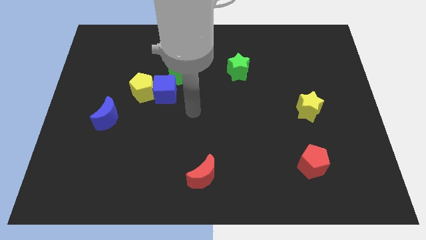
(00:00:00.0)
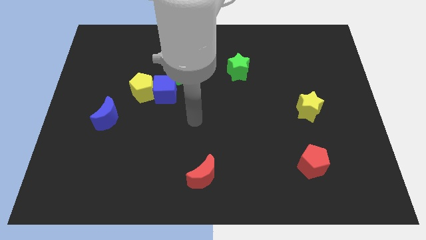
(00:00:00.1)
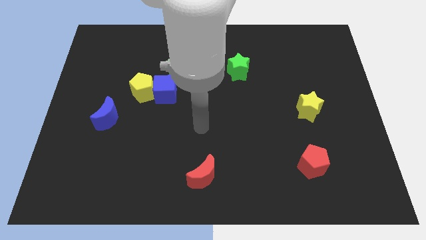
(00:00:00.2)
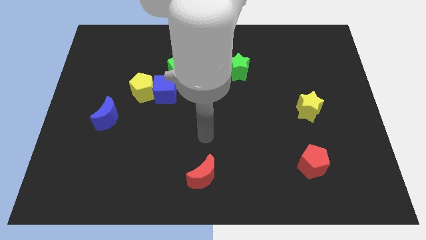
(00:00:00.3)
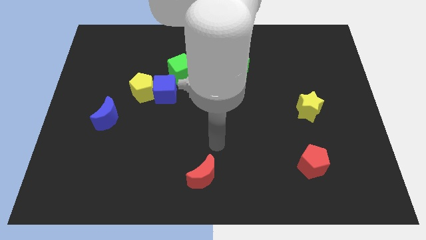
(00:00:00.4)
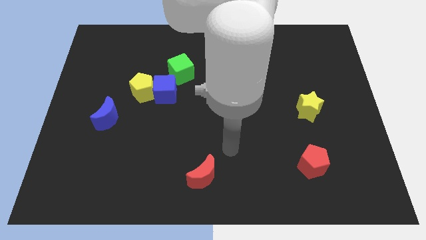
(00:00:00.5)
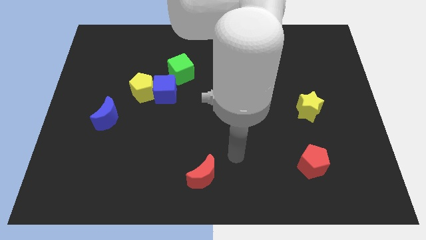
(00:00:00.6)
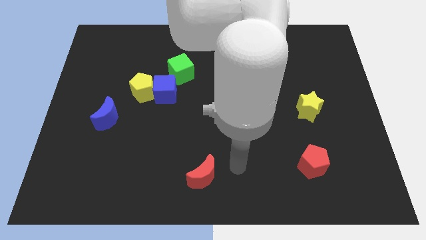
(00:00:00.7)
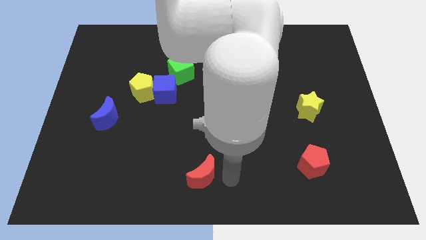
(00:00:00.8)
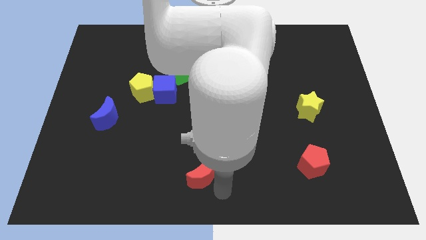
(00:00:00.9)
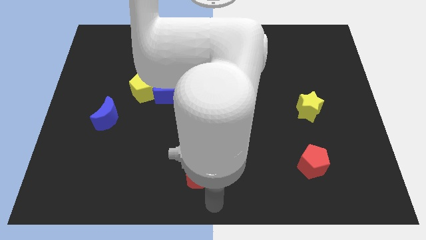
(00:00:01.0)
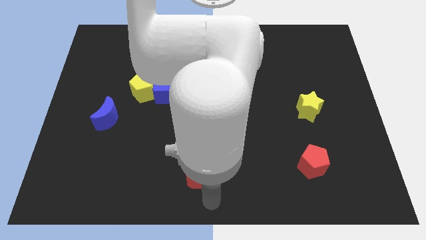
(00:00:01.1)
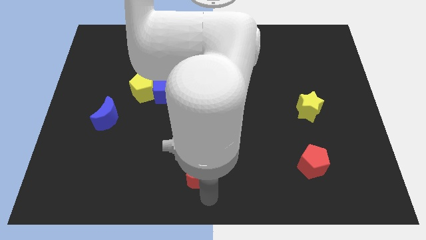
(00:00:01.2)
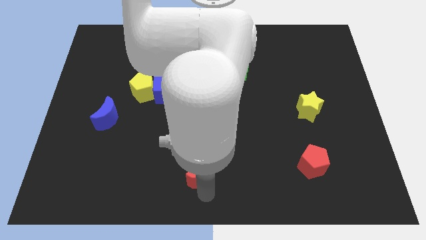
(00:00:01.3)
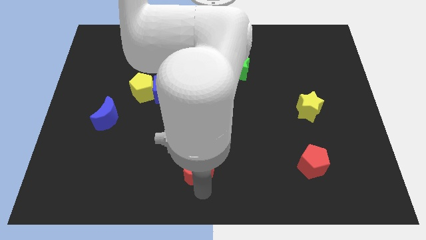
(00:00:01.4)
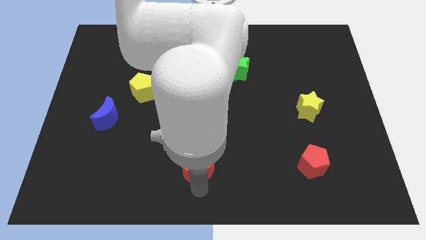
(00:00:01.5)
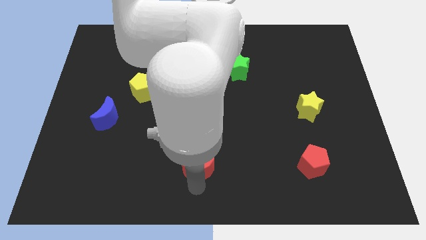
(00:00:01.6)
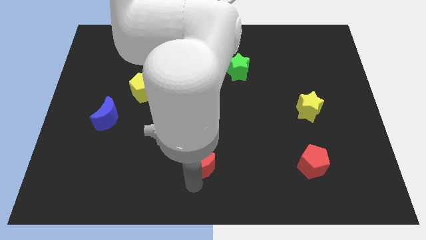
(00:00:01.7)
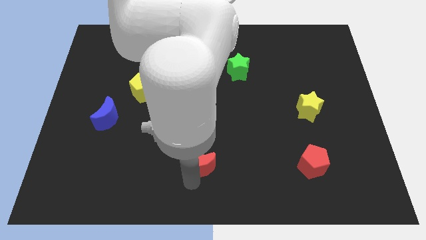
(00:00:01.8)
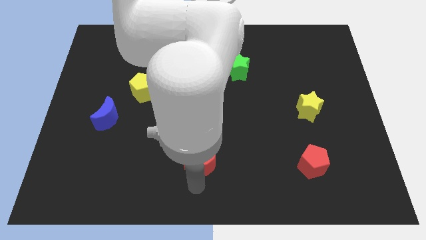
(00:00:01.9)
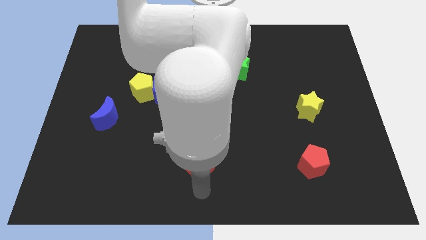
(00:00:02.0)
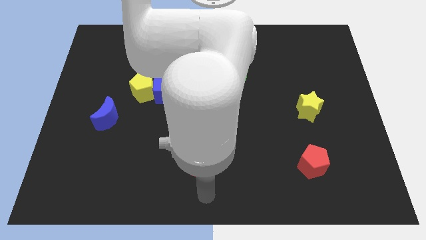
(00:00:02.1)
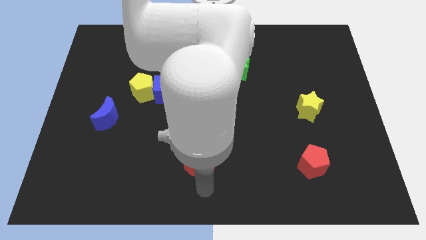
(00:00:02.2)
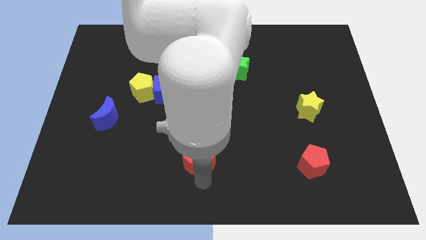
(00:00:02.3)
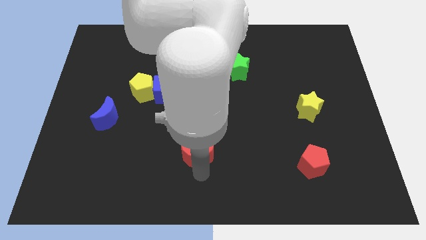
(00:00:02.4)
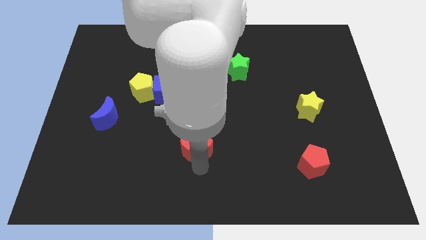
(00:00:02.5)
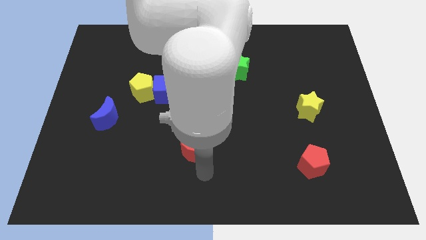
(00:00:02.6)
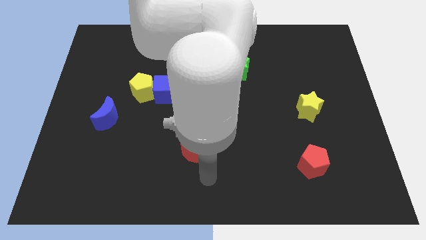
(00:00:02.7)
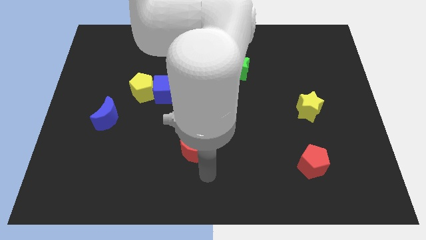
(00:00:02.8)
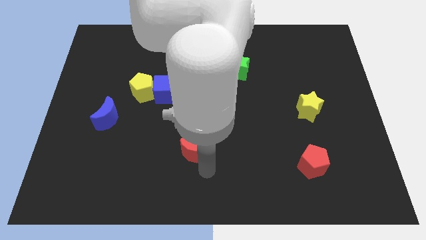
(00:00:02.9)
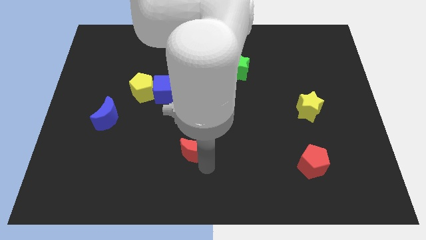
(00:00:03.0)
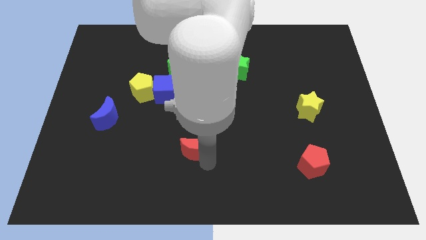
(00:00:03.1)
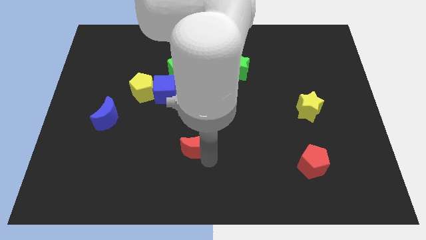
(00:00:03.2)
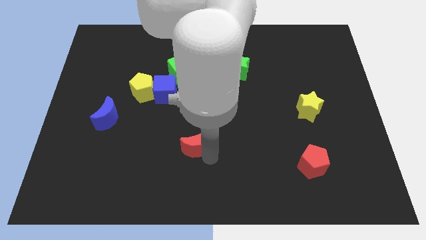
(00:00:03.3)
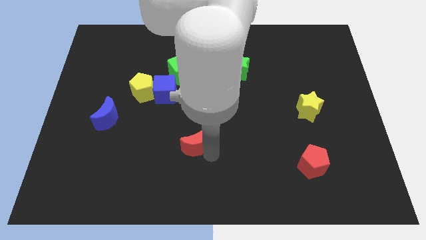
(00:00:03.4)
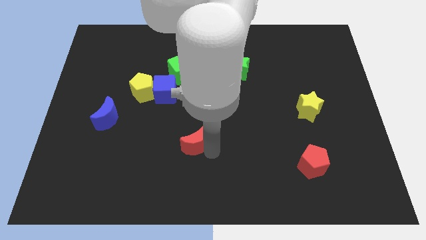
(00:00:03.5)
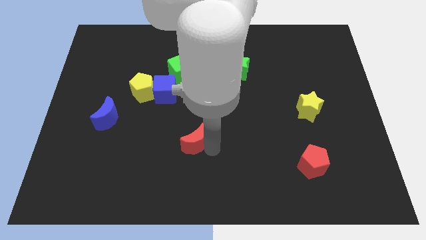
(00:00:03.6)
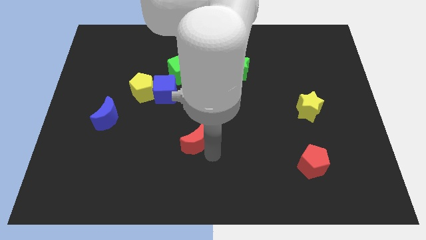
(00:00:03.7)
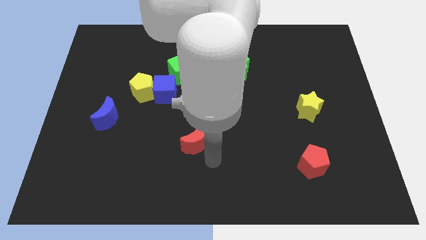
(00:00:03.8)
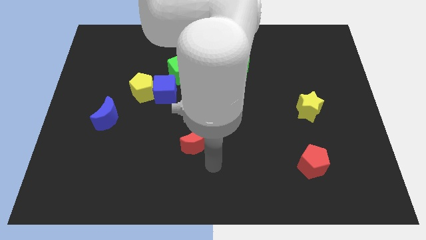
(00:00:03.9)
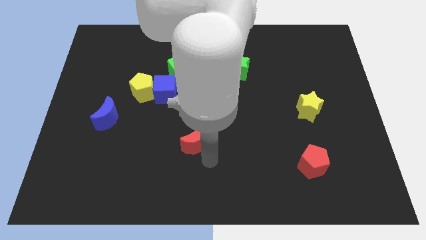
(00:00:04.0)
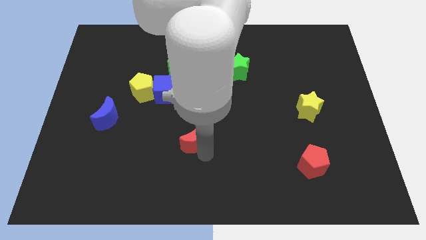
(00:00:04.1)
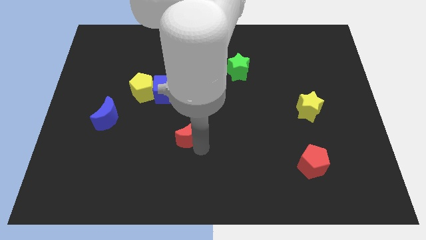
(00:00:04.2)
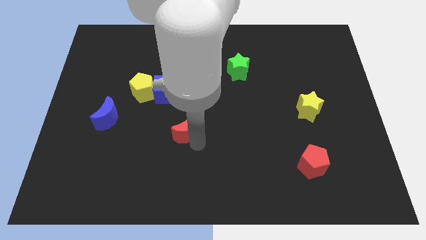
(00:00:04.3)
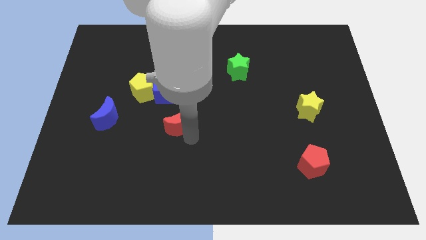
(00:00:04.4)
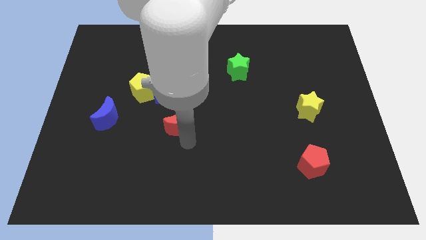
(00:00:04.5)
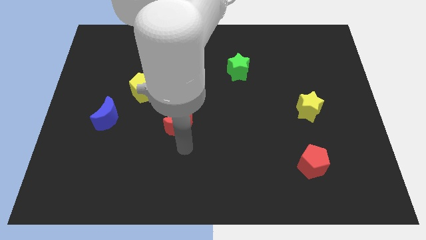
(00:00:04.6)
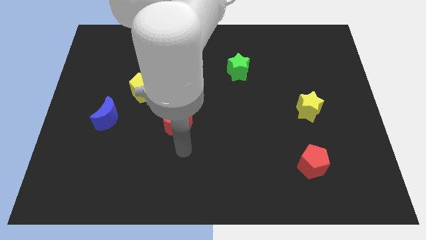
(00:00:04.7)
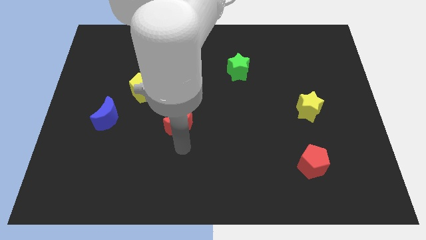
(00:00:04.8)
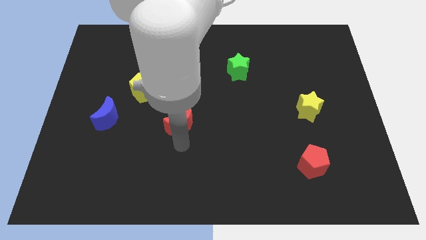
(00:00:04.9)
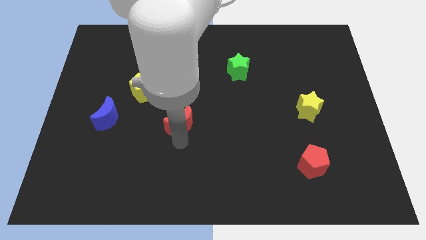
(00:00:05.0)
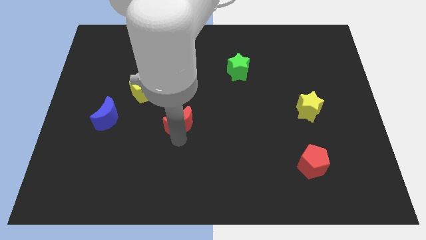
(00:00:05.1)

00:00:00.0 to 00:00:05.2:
slide the red moon below the green cube

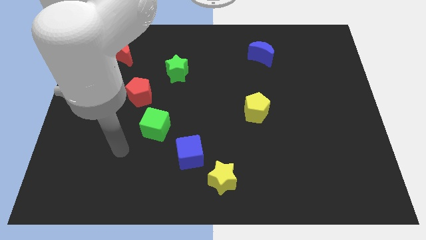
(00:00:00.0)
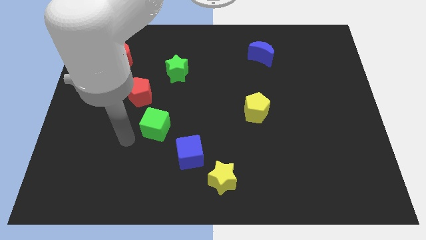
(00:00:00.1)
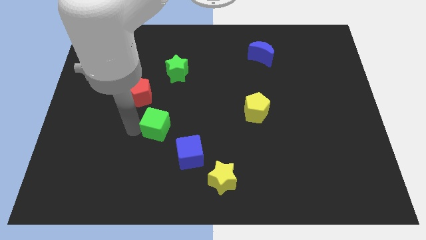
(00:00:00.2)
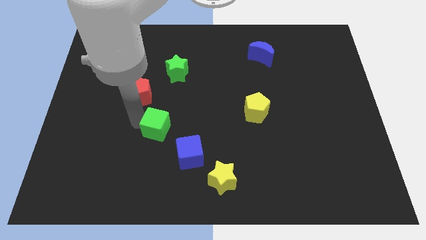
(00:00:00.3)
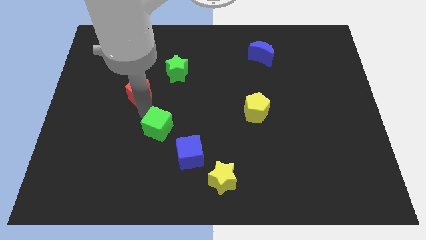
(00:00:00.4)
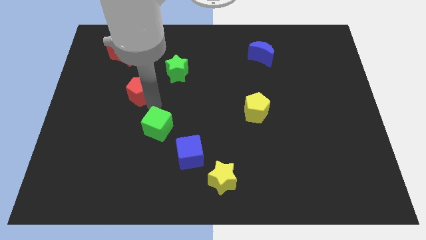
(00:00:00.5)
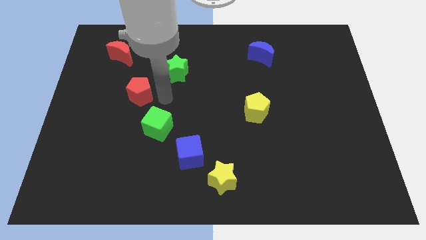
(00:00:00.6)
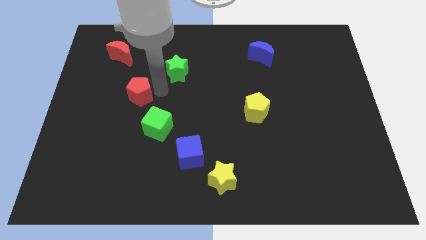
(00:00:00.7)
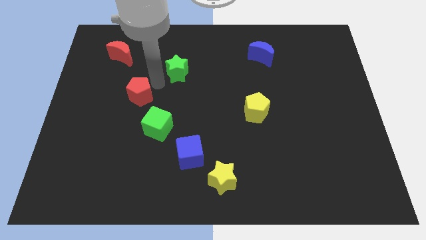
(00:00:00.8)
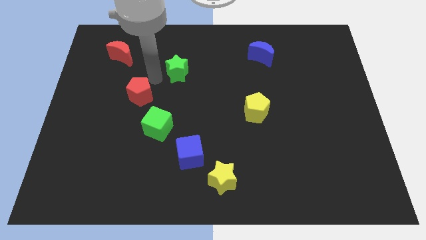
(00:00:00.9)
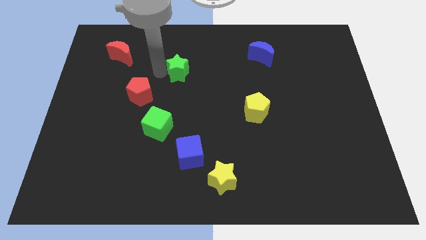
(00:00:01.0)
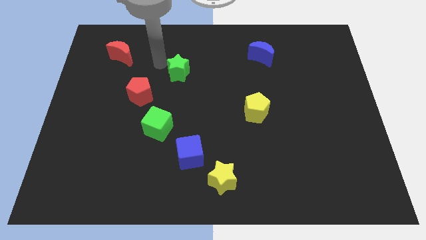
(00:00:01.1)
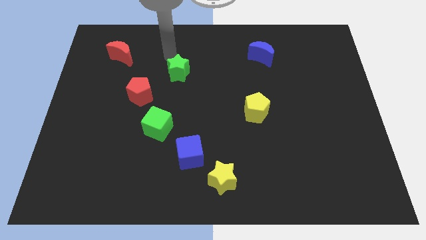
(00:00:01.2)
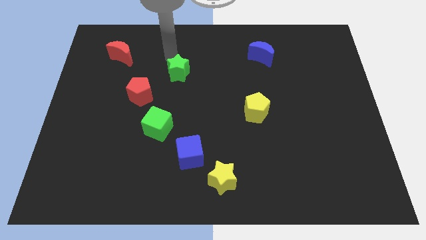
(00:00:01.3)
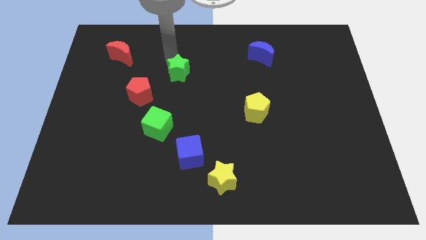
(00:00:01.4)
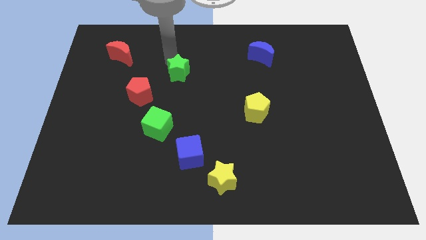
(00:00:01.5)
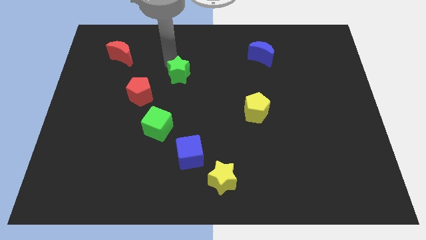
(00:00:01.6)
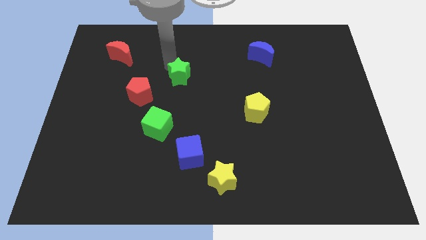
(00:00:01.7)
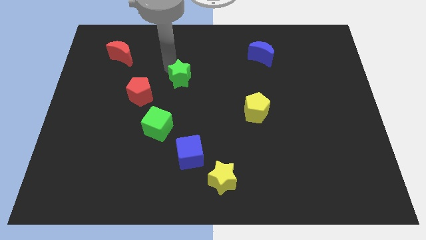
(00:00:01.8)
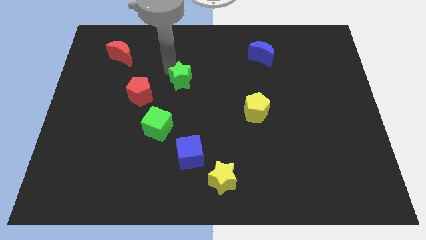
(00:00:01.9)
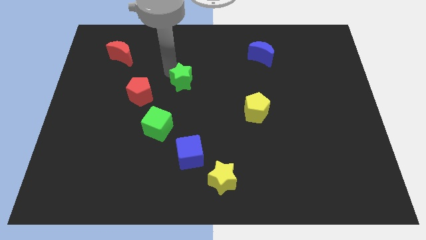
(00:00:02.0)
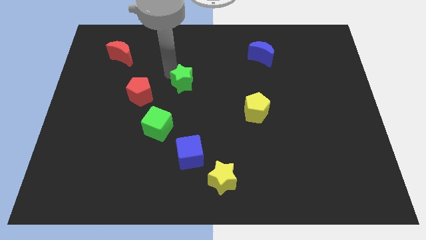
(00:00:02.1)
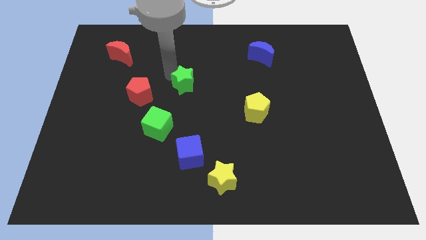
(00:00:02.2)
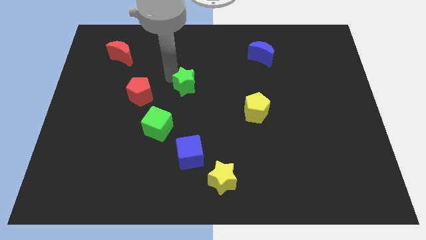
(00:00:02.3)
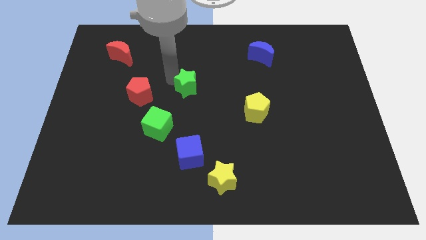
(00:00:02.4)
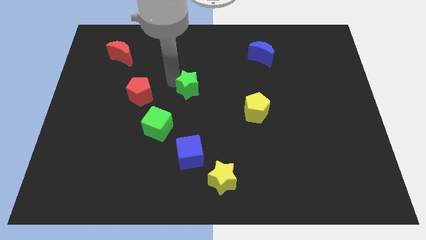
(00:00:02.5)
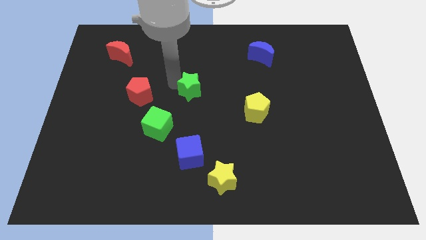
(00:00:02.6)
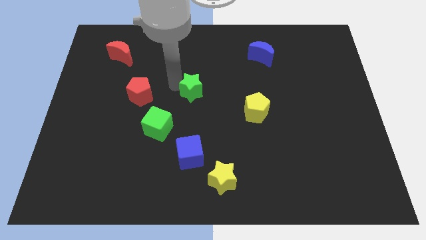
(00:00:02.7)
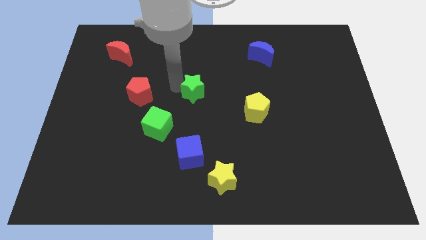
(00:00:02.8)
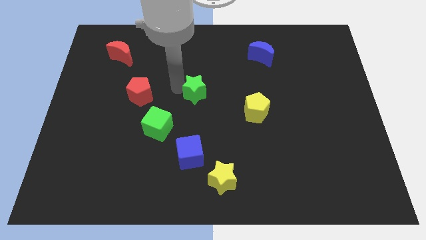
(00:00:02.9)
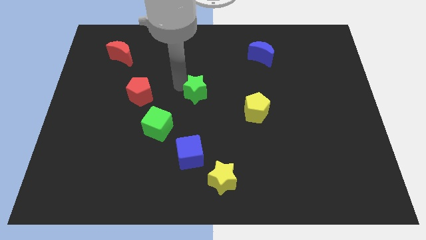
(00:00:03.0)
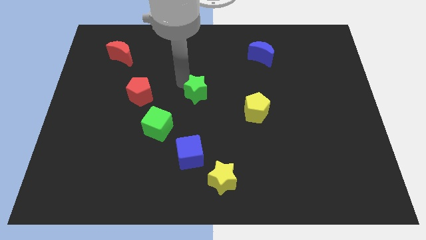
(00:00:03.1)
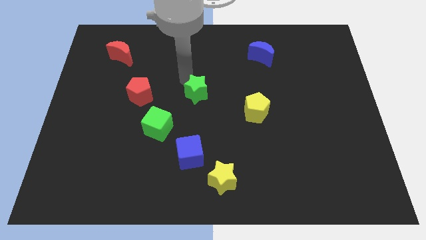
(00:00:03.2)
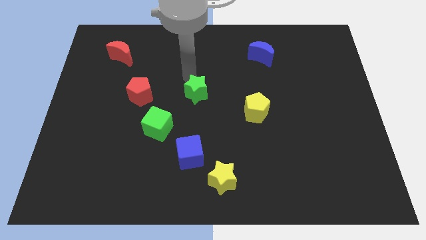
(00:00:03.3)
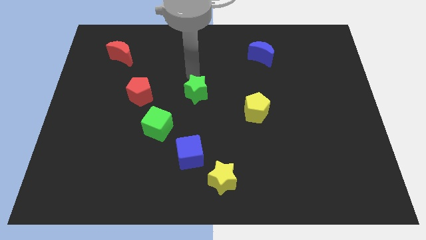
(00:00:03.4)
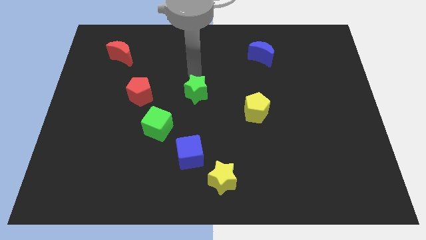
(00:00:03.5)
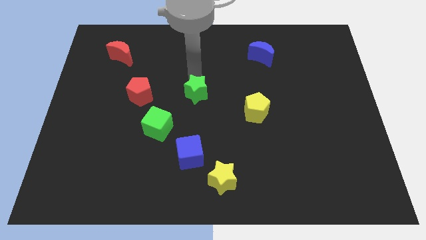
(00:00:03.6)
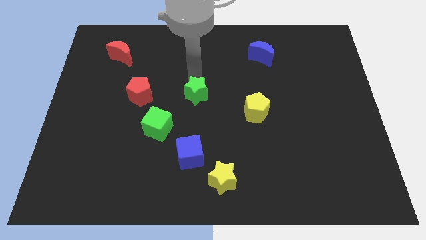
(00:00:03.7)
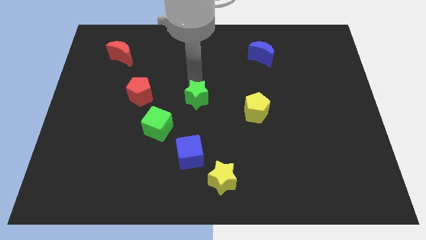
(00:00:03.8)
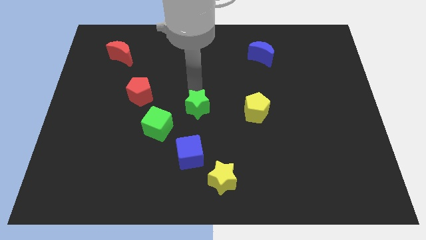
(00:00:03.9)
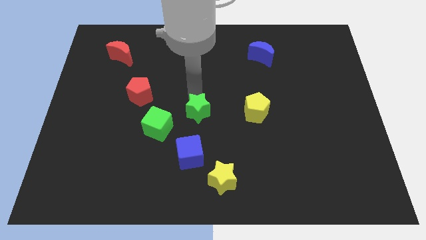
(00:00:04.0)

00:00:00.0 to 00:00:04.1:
slide the green star right of the green cube
